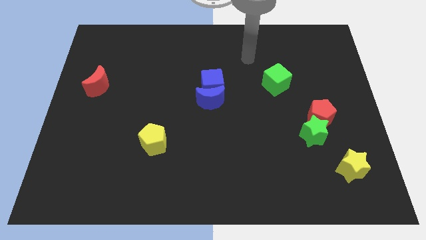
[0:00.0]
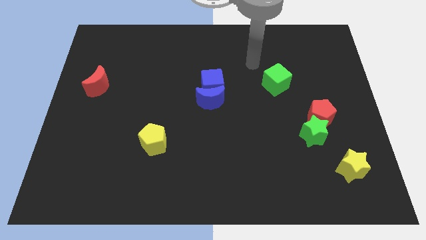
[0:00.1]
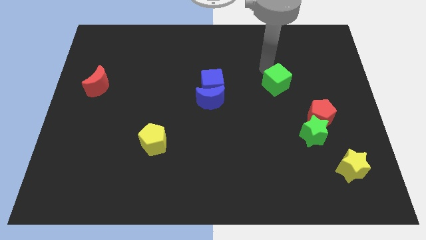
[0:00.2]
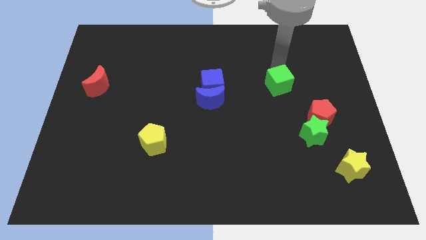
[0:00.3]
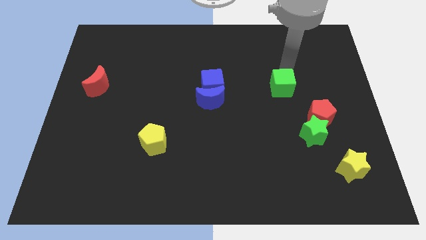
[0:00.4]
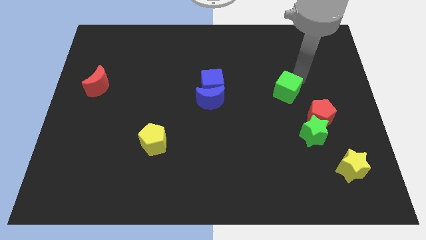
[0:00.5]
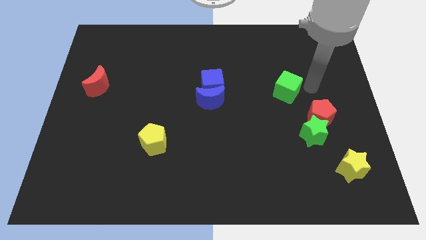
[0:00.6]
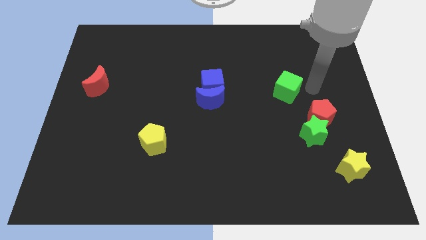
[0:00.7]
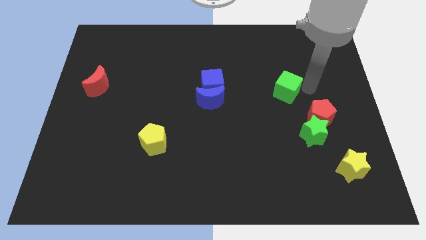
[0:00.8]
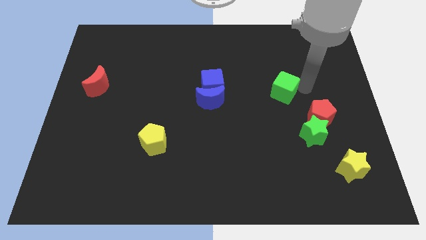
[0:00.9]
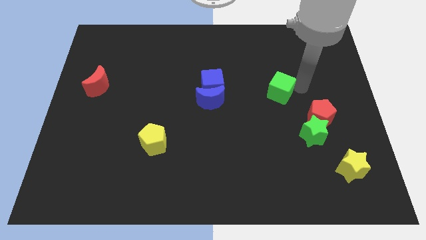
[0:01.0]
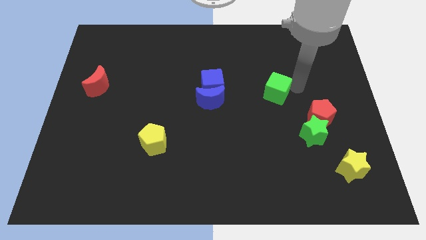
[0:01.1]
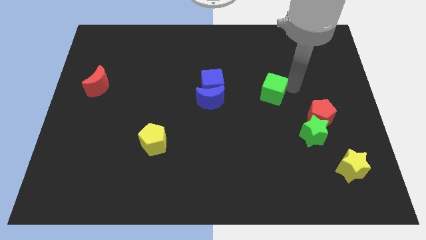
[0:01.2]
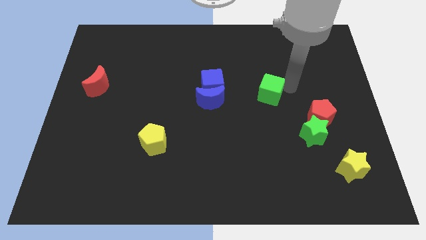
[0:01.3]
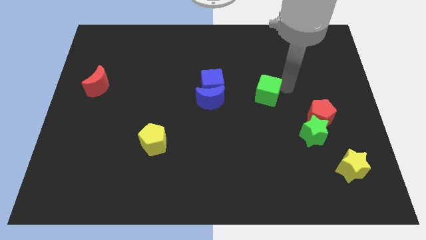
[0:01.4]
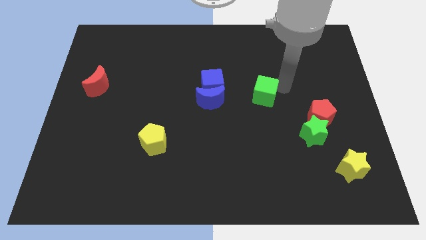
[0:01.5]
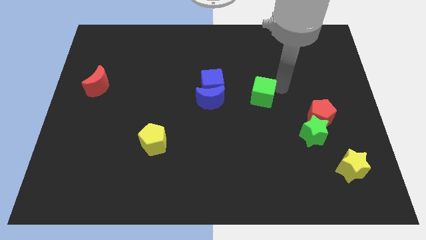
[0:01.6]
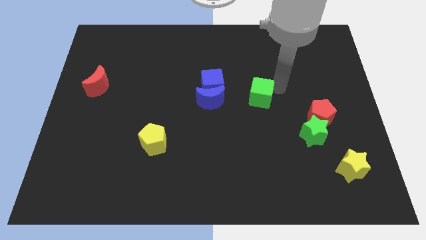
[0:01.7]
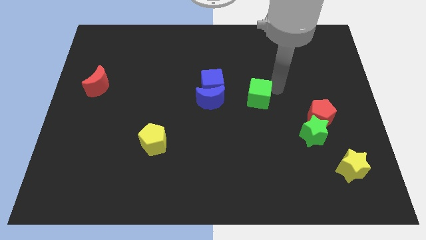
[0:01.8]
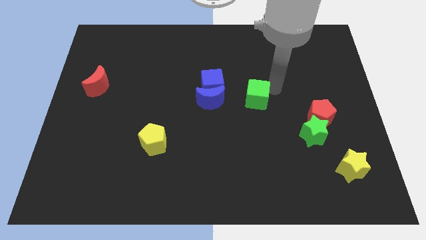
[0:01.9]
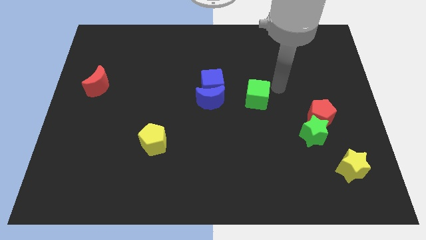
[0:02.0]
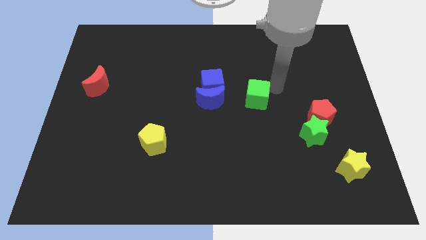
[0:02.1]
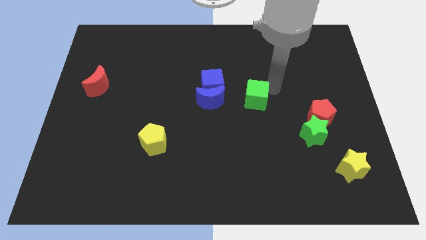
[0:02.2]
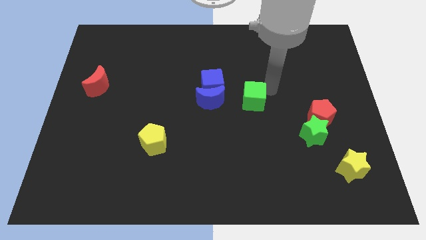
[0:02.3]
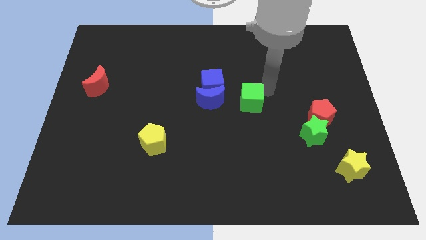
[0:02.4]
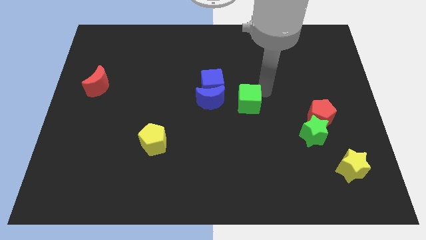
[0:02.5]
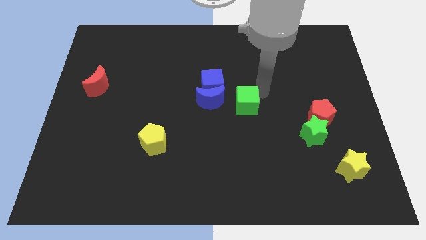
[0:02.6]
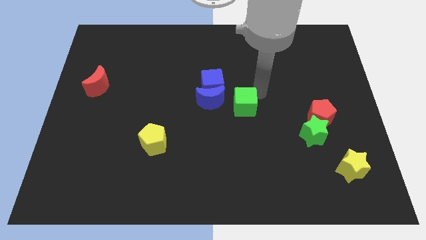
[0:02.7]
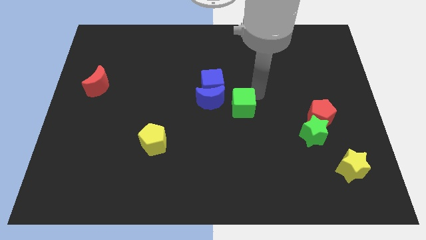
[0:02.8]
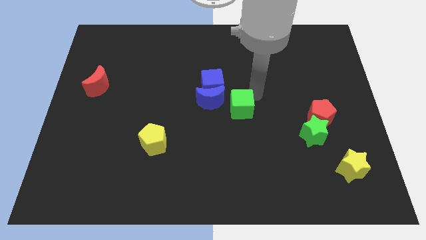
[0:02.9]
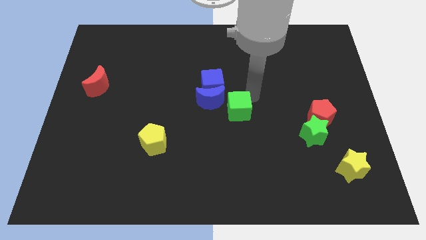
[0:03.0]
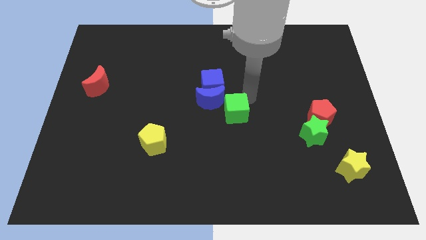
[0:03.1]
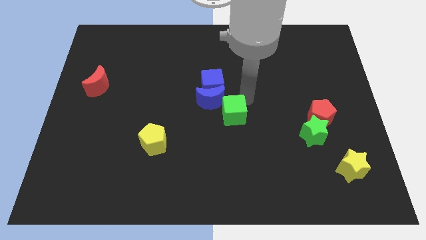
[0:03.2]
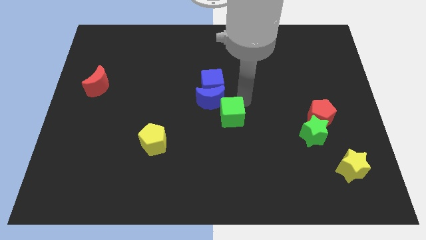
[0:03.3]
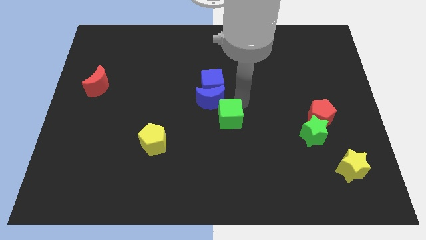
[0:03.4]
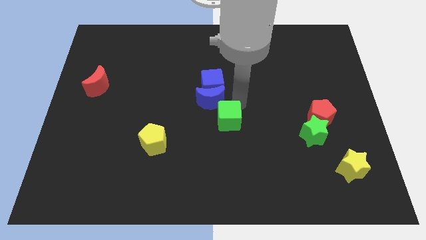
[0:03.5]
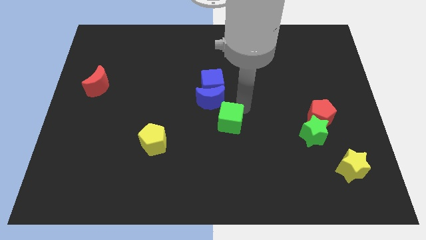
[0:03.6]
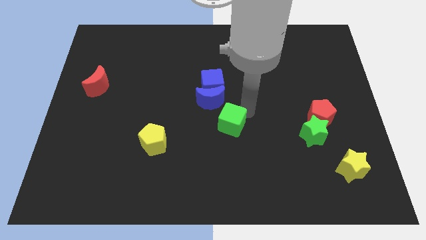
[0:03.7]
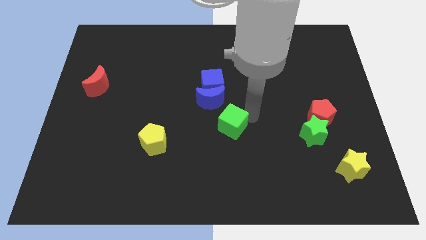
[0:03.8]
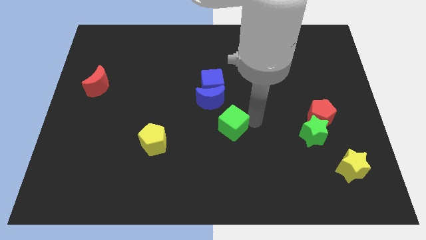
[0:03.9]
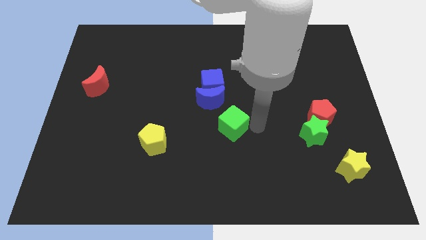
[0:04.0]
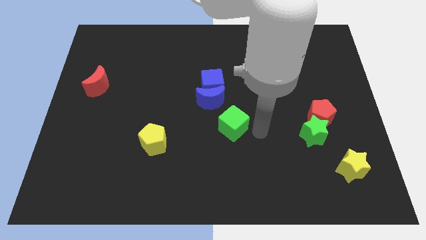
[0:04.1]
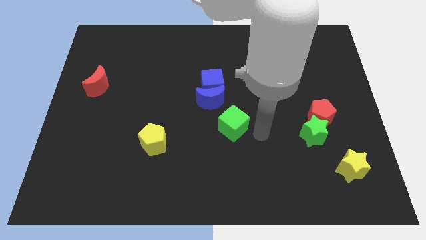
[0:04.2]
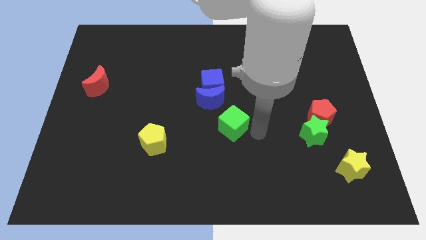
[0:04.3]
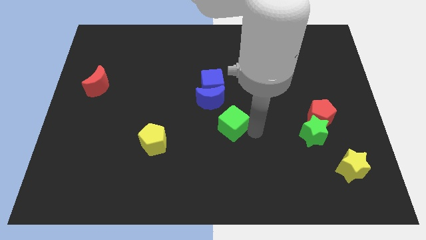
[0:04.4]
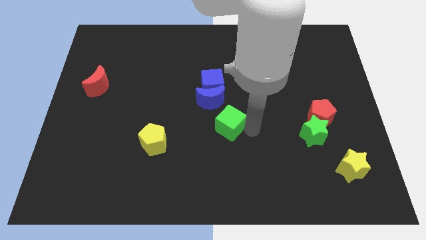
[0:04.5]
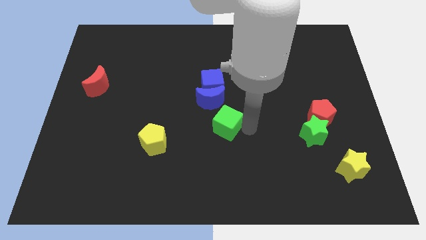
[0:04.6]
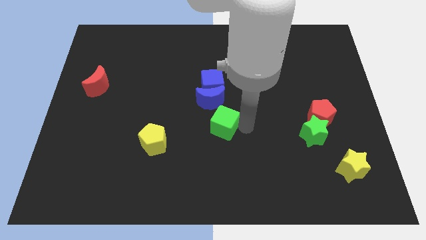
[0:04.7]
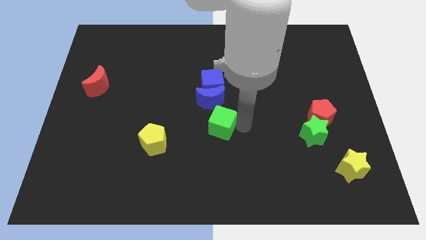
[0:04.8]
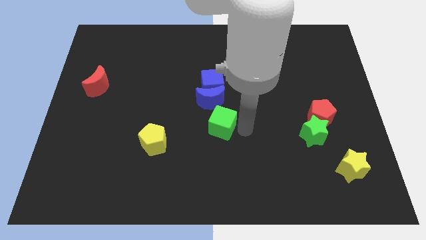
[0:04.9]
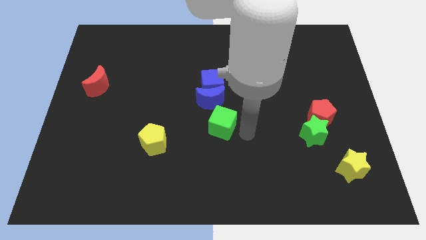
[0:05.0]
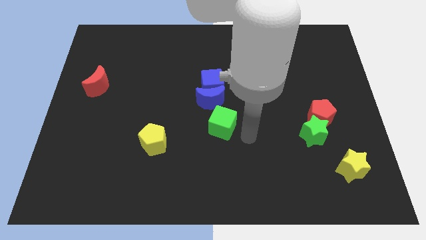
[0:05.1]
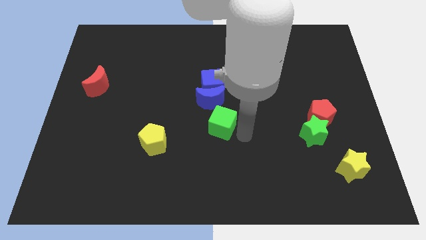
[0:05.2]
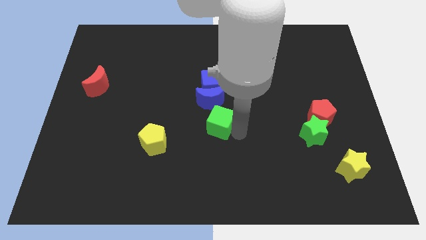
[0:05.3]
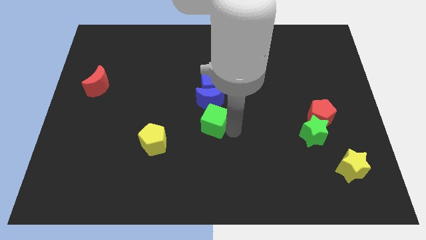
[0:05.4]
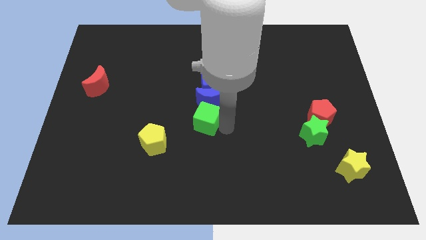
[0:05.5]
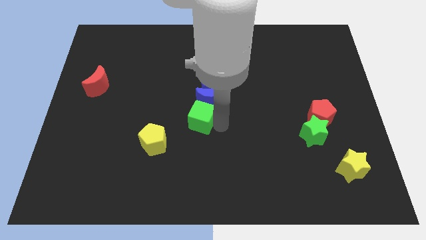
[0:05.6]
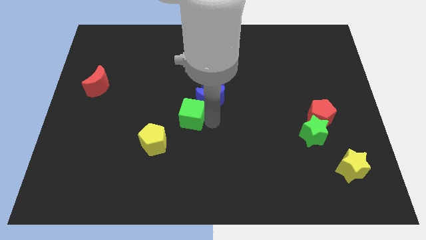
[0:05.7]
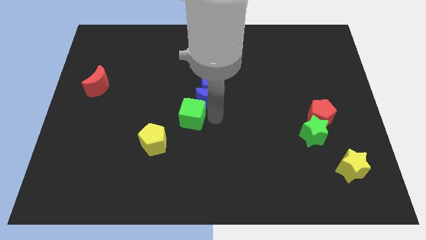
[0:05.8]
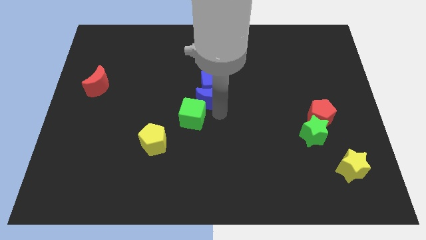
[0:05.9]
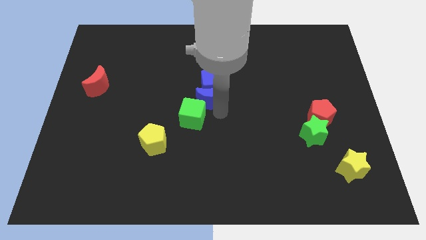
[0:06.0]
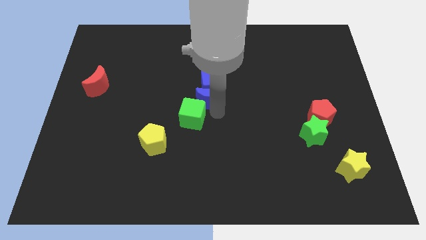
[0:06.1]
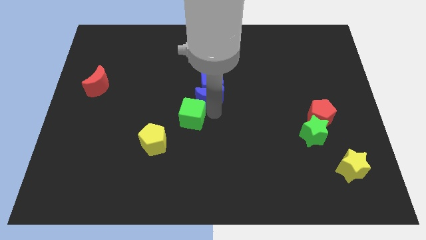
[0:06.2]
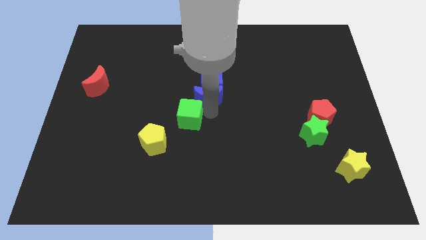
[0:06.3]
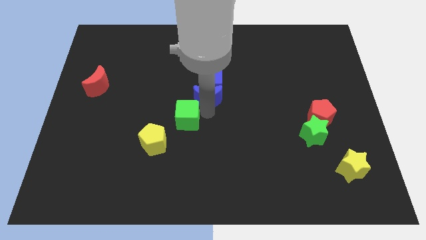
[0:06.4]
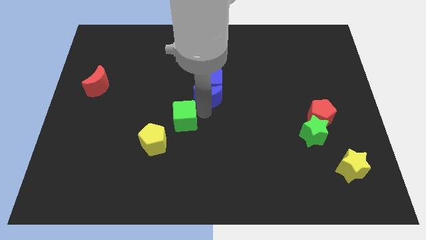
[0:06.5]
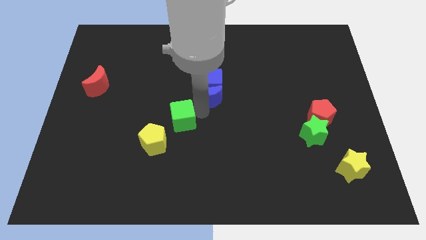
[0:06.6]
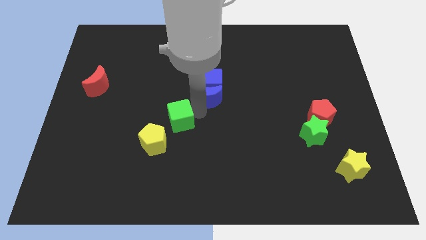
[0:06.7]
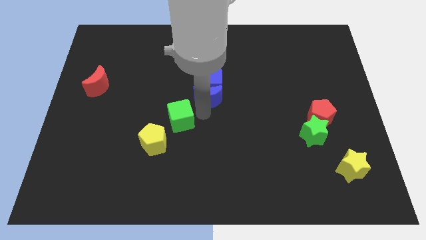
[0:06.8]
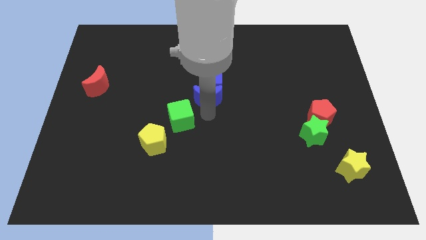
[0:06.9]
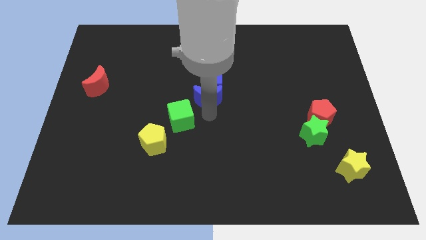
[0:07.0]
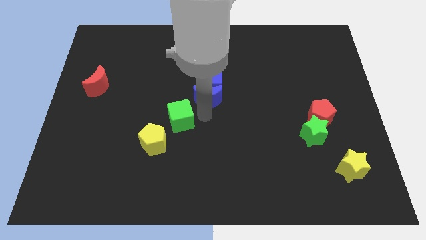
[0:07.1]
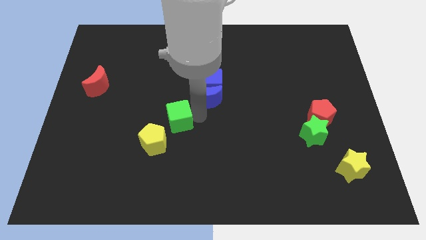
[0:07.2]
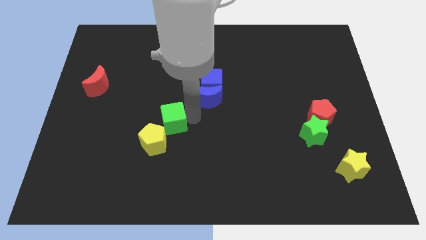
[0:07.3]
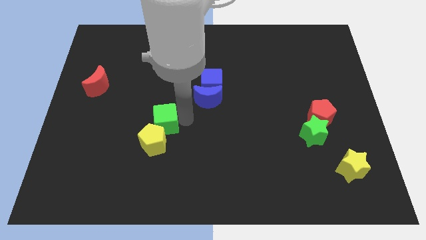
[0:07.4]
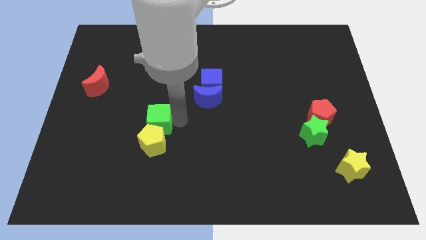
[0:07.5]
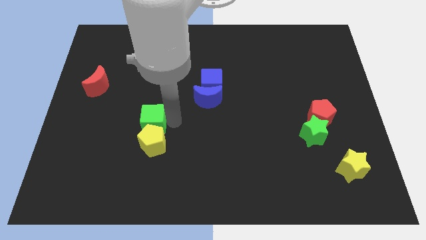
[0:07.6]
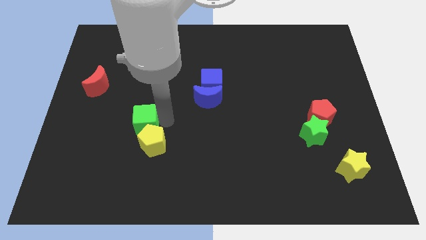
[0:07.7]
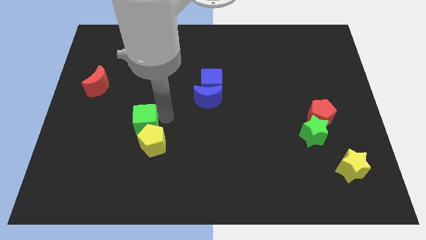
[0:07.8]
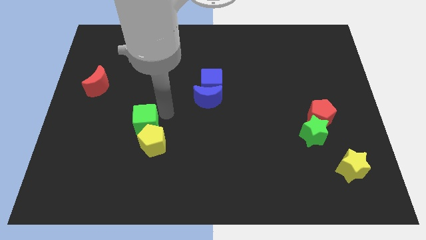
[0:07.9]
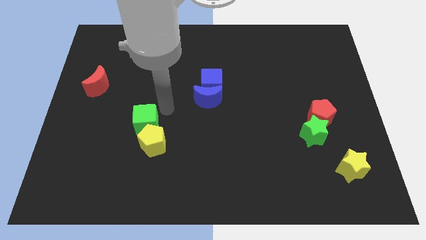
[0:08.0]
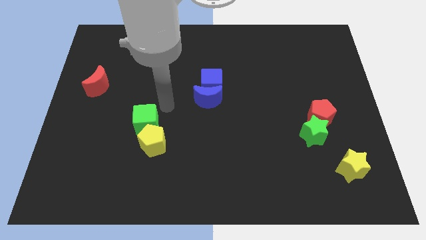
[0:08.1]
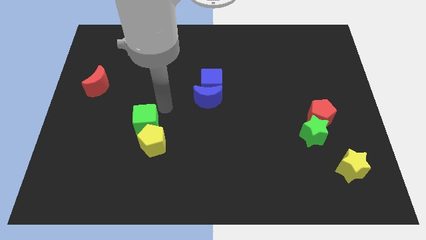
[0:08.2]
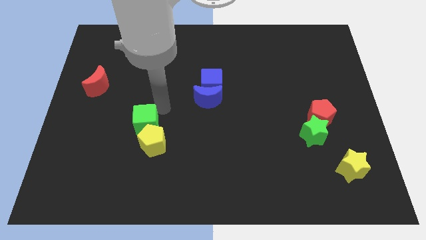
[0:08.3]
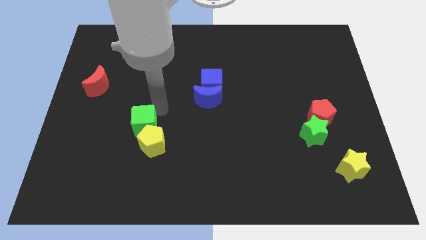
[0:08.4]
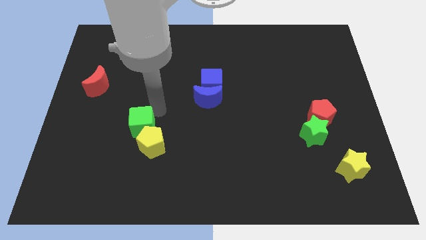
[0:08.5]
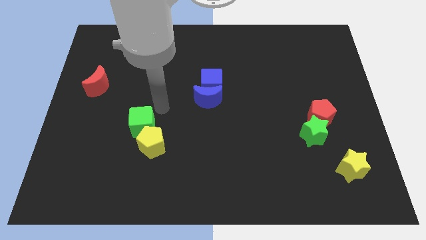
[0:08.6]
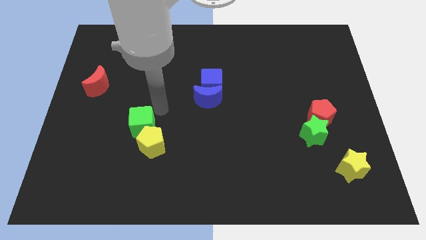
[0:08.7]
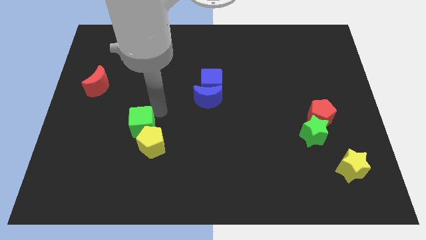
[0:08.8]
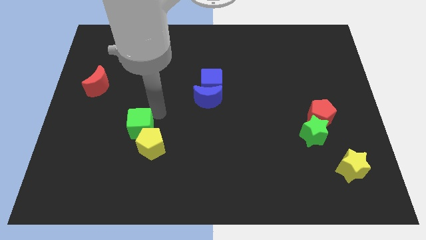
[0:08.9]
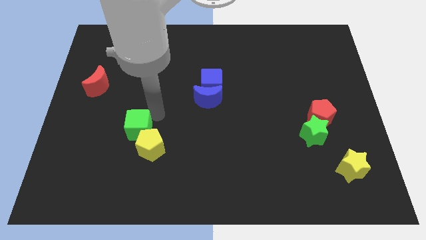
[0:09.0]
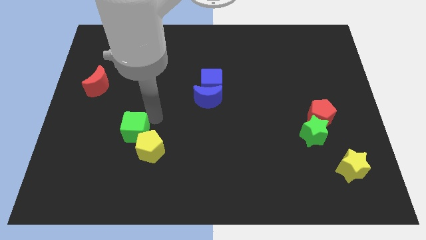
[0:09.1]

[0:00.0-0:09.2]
slide the green cube just left of the yellow pentagon
